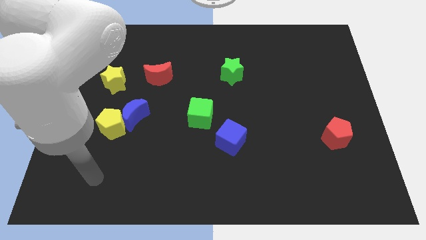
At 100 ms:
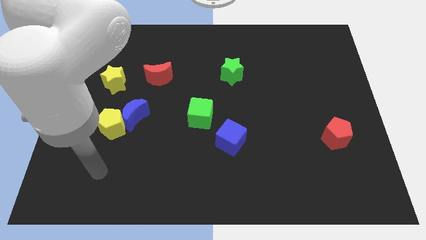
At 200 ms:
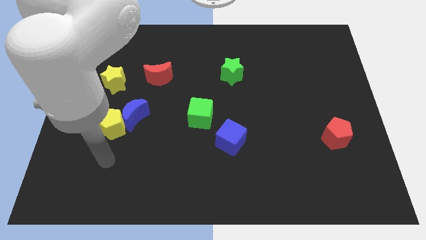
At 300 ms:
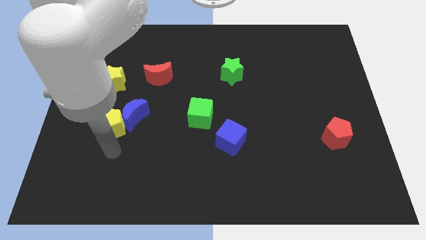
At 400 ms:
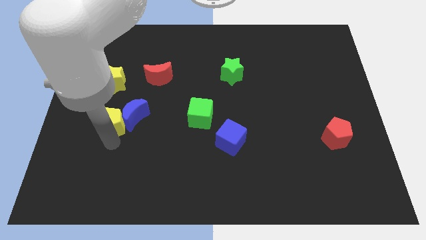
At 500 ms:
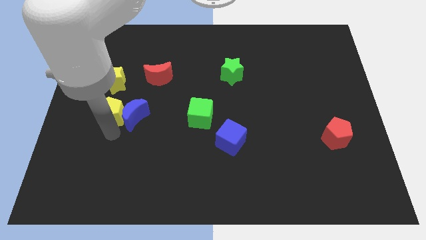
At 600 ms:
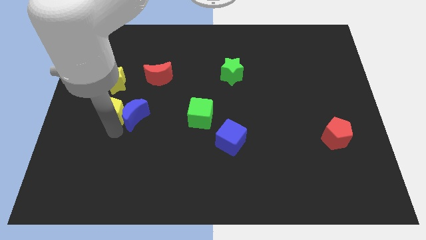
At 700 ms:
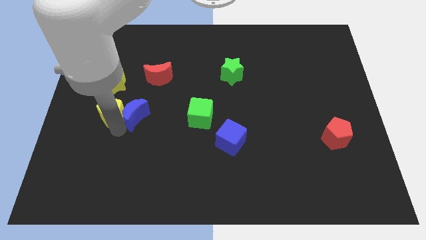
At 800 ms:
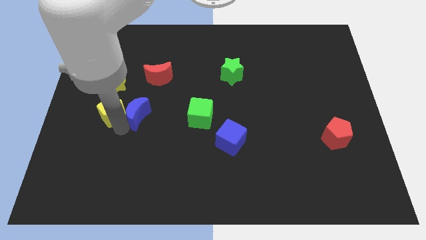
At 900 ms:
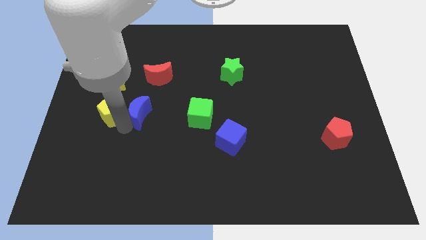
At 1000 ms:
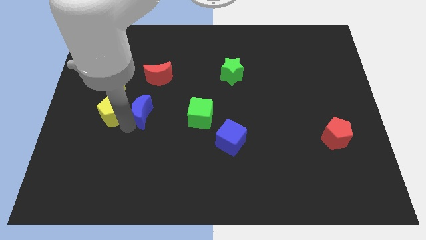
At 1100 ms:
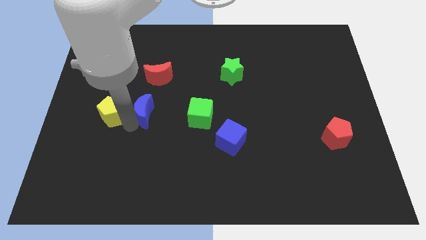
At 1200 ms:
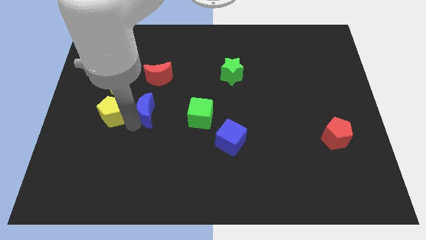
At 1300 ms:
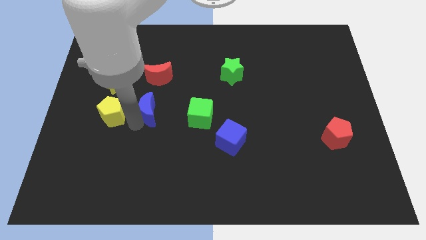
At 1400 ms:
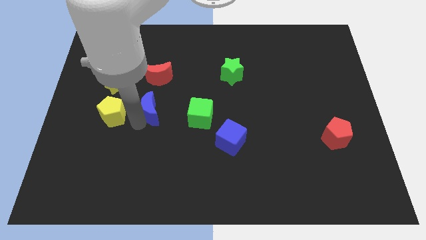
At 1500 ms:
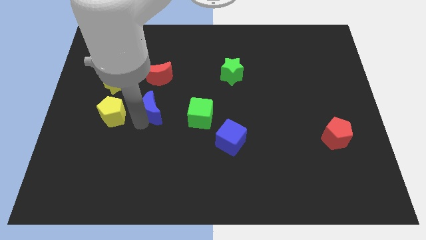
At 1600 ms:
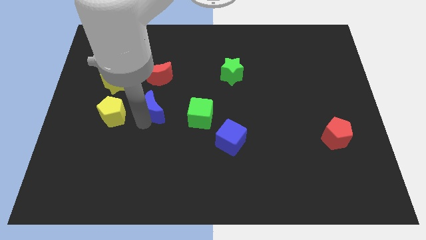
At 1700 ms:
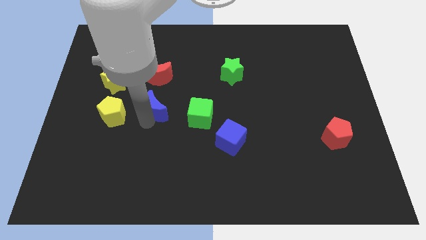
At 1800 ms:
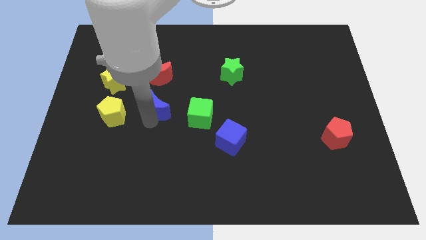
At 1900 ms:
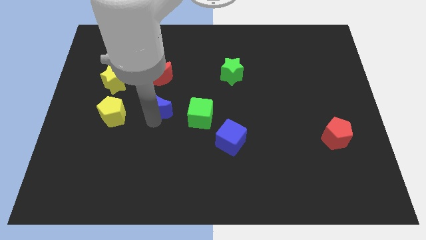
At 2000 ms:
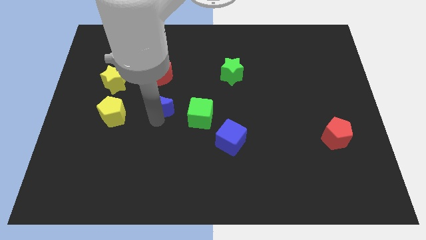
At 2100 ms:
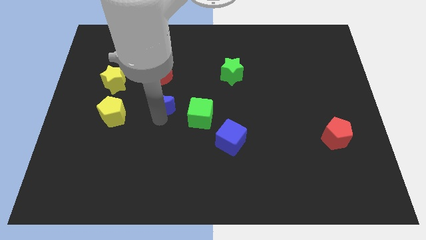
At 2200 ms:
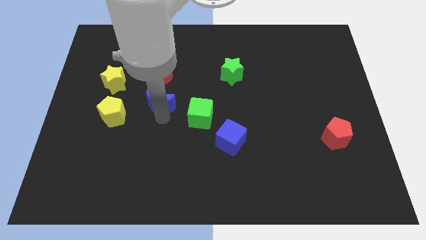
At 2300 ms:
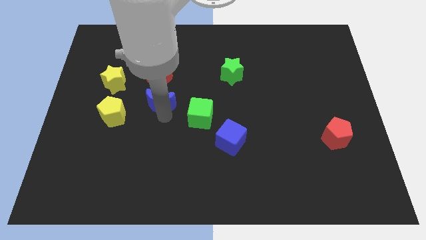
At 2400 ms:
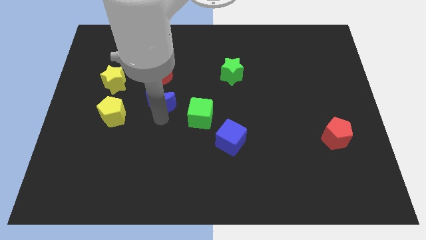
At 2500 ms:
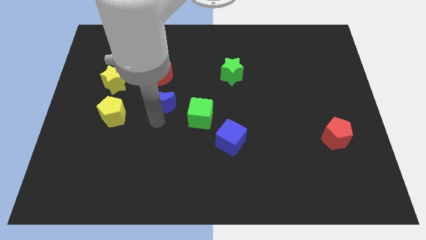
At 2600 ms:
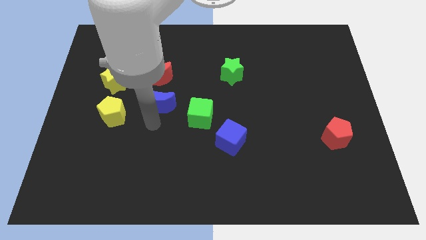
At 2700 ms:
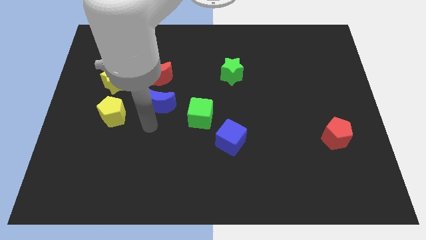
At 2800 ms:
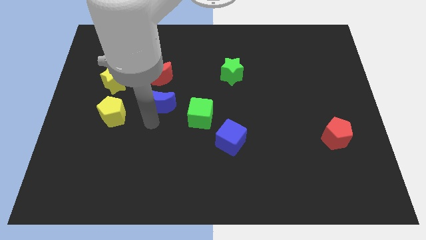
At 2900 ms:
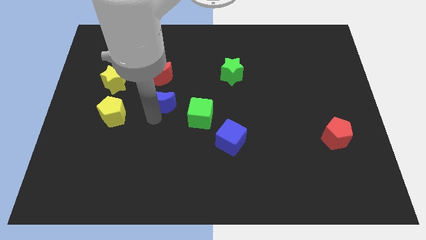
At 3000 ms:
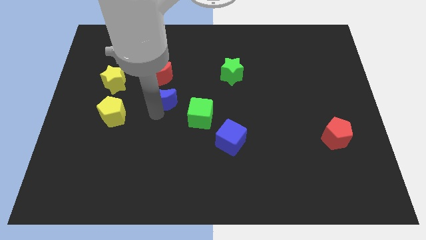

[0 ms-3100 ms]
slightly slide the blue moon up and right diagonally

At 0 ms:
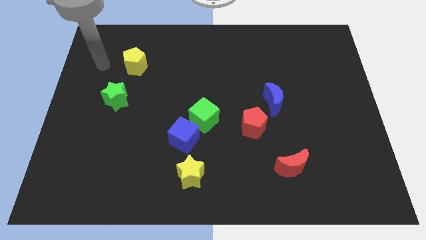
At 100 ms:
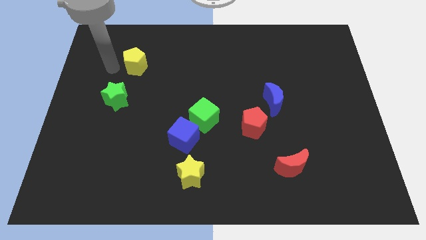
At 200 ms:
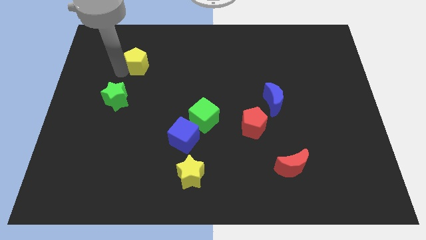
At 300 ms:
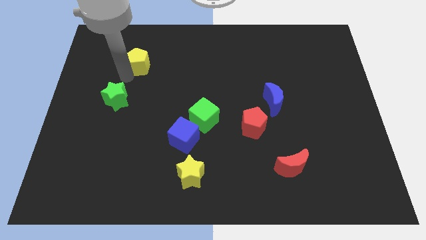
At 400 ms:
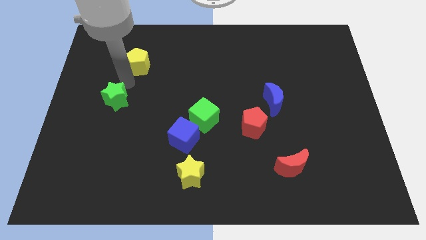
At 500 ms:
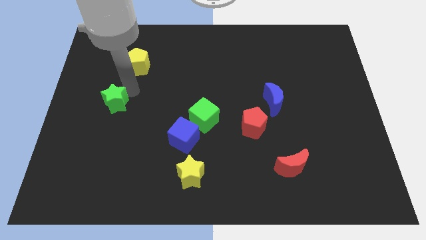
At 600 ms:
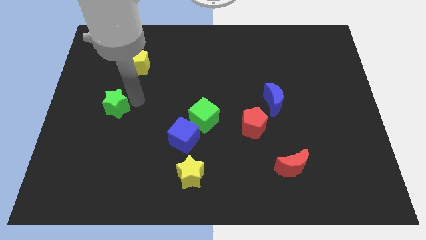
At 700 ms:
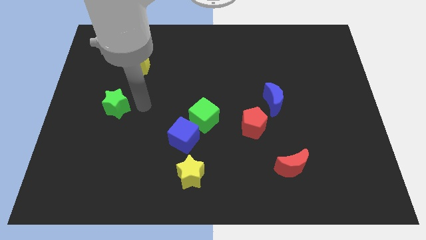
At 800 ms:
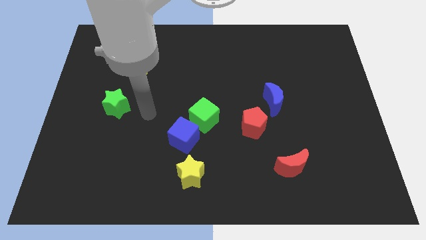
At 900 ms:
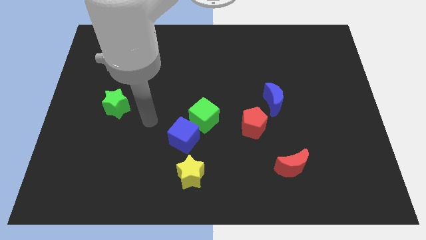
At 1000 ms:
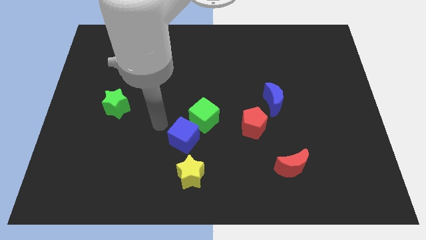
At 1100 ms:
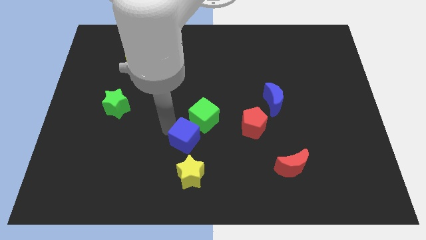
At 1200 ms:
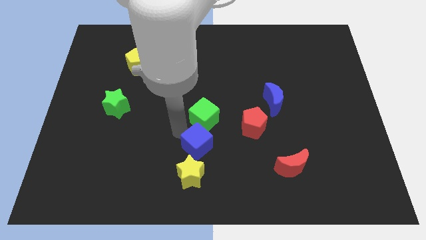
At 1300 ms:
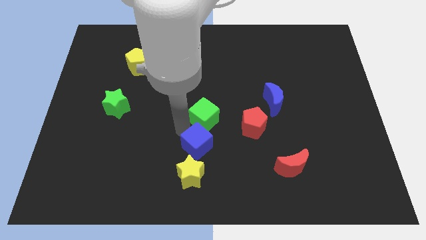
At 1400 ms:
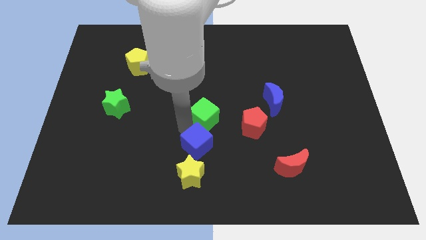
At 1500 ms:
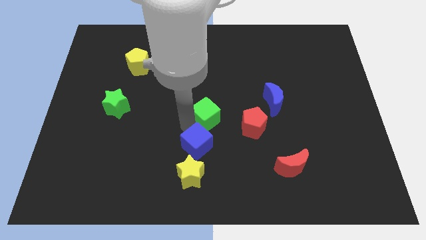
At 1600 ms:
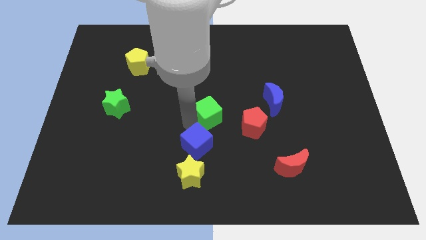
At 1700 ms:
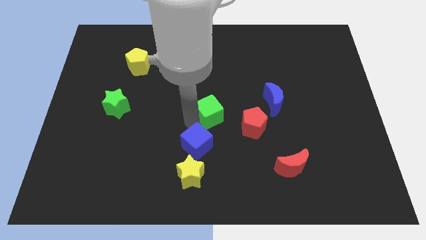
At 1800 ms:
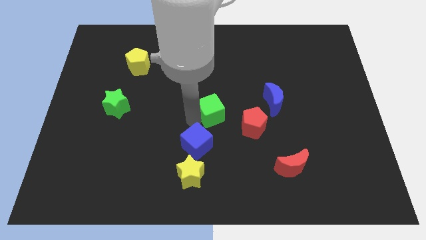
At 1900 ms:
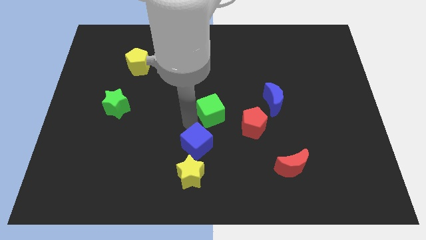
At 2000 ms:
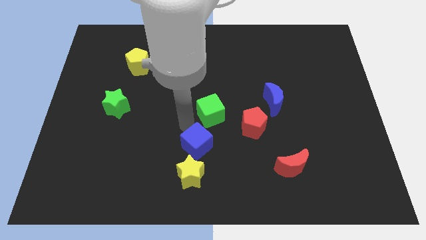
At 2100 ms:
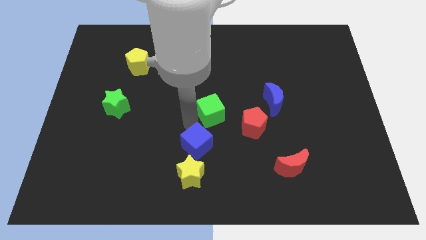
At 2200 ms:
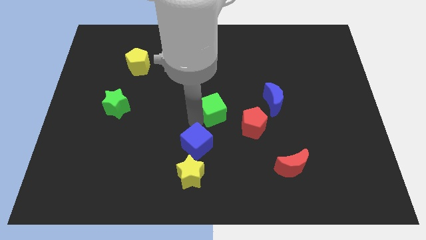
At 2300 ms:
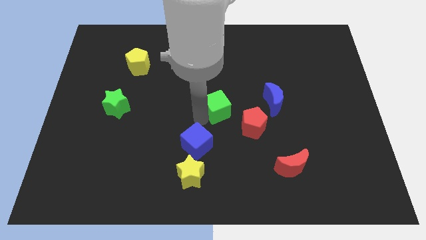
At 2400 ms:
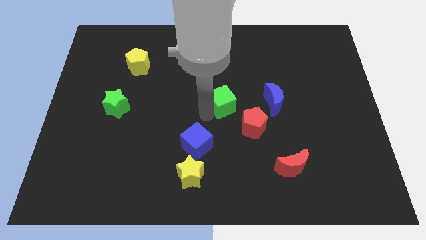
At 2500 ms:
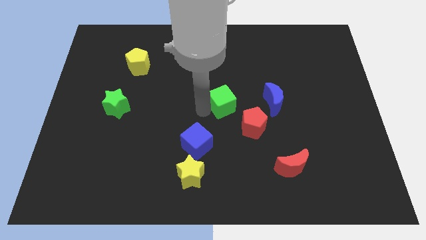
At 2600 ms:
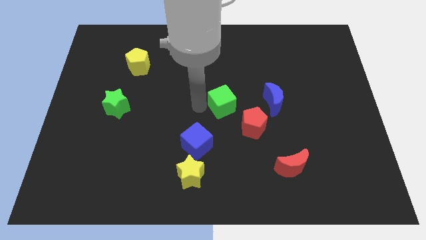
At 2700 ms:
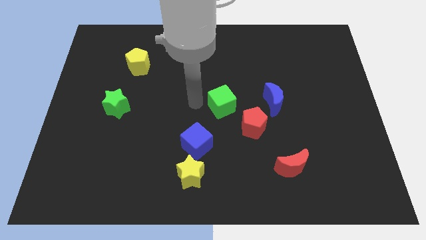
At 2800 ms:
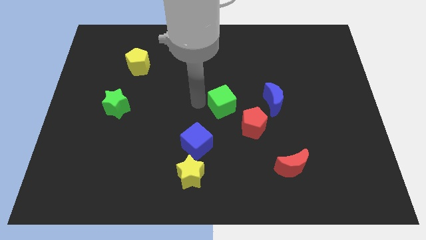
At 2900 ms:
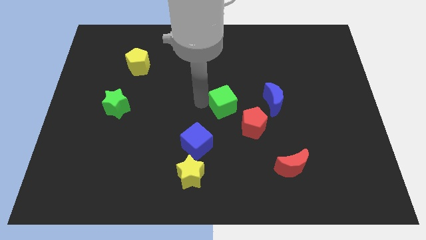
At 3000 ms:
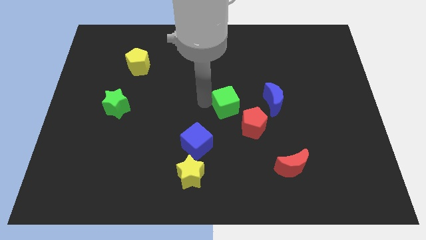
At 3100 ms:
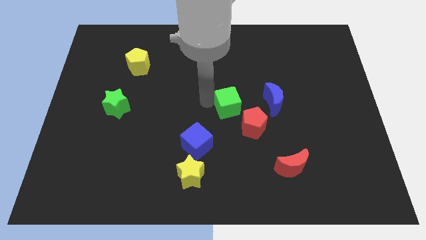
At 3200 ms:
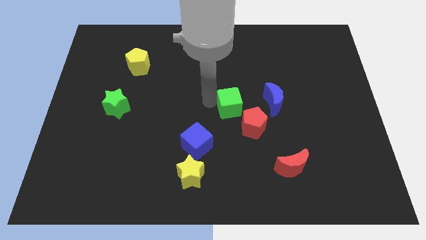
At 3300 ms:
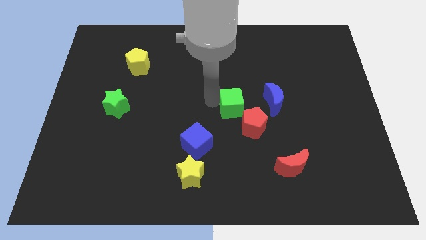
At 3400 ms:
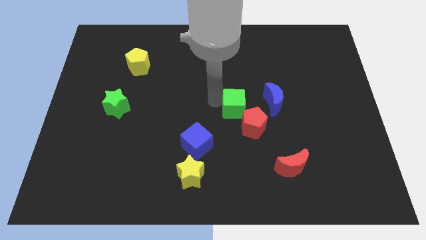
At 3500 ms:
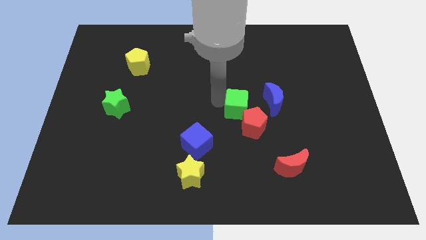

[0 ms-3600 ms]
slightly slide the green cube to the right

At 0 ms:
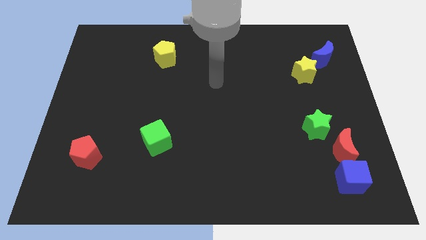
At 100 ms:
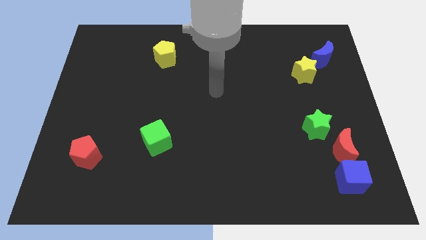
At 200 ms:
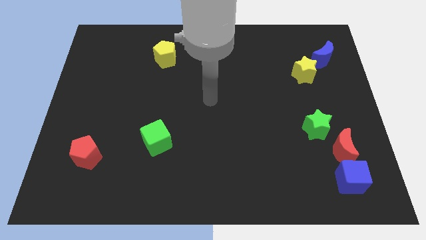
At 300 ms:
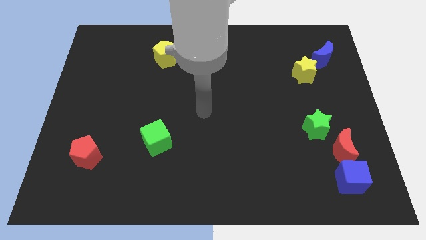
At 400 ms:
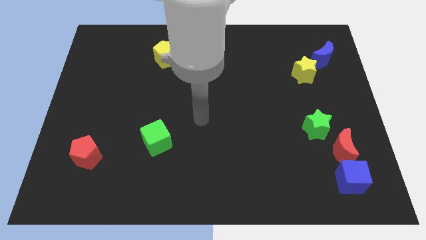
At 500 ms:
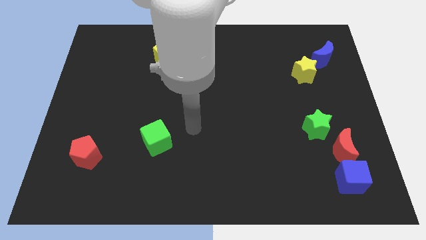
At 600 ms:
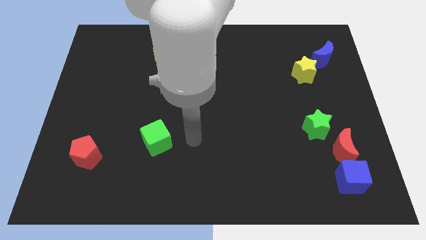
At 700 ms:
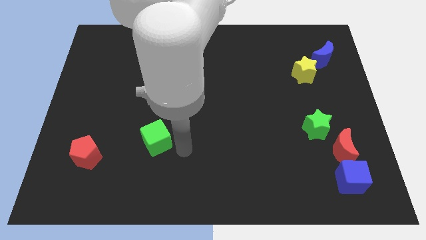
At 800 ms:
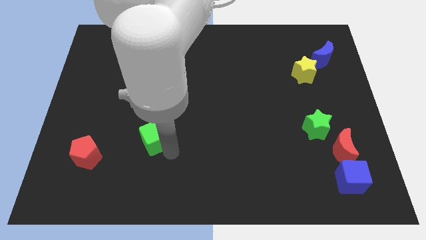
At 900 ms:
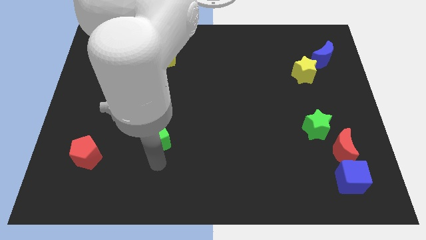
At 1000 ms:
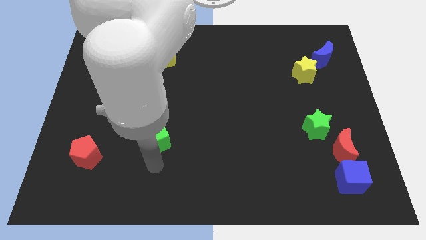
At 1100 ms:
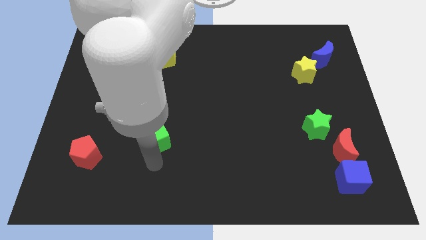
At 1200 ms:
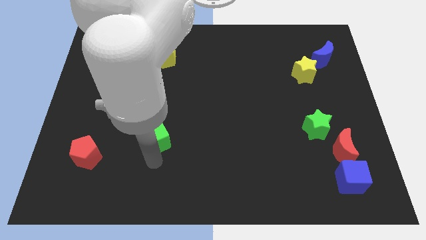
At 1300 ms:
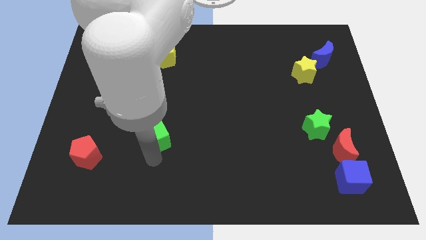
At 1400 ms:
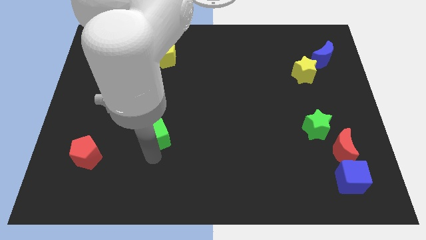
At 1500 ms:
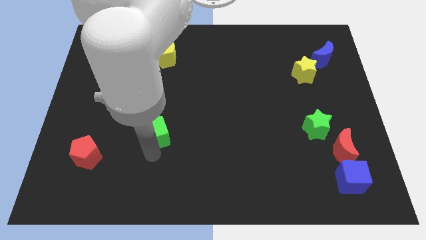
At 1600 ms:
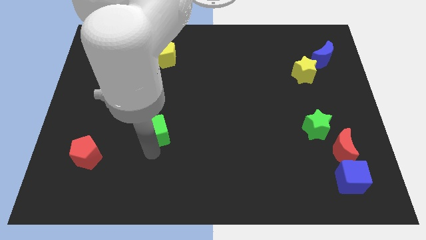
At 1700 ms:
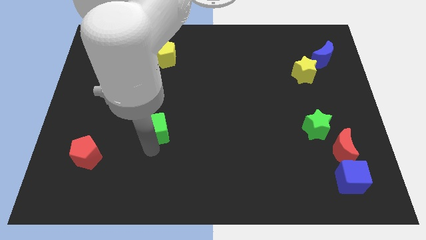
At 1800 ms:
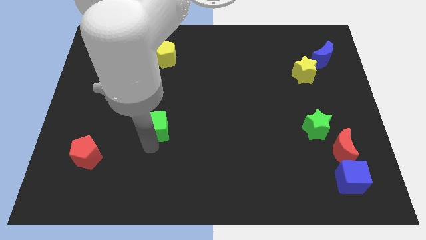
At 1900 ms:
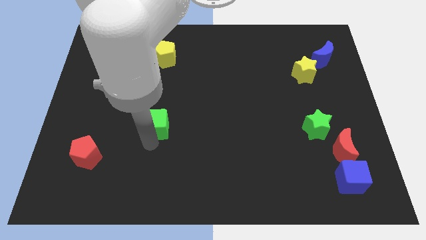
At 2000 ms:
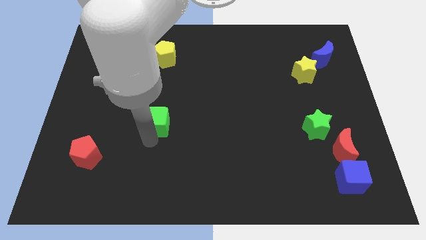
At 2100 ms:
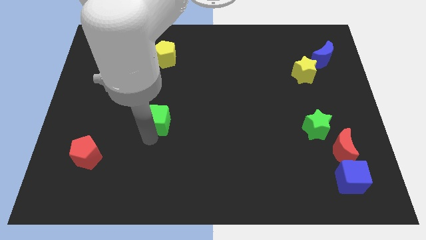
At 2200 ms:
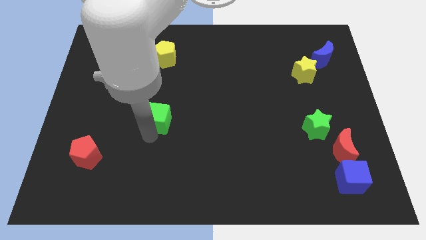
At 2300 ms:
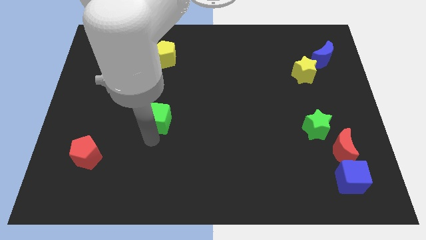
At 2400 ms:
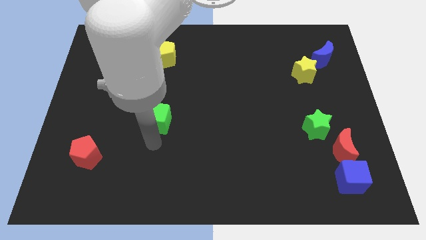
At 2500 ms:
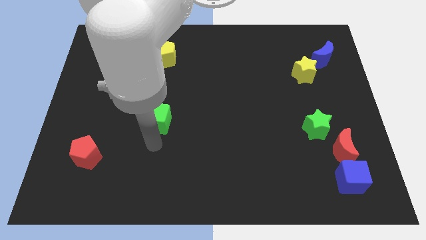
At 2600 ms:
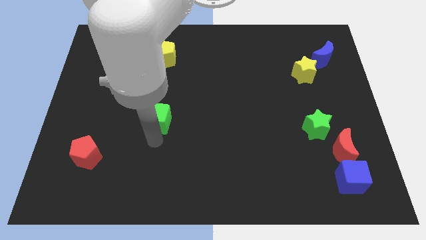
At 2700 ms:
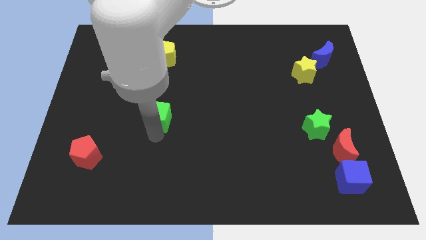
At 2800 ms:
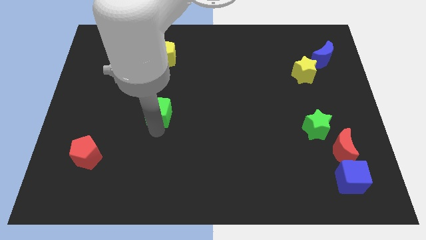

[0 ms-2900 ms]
push the green cube upwards a little bit
